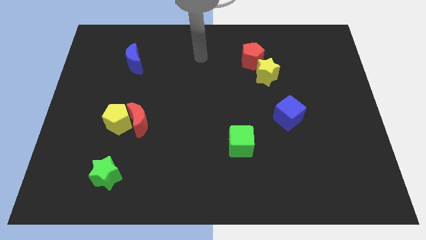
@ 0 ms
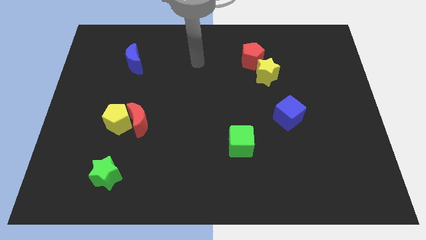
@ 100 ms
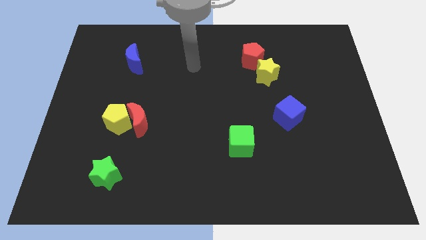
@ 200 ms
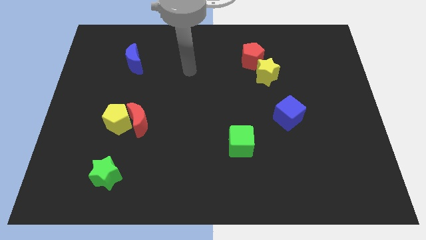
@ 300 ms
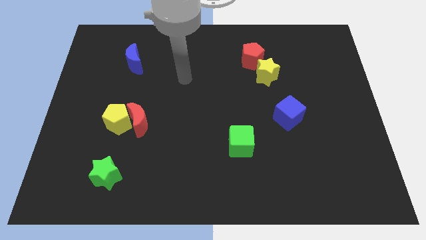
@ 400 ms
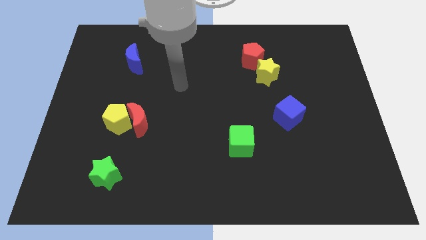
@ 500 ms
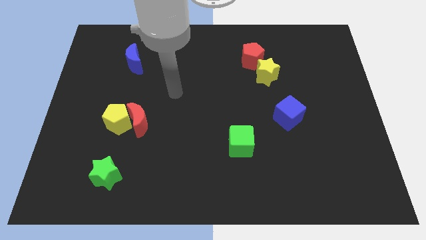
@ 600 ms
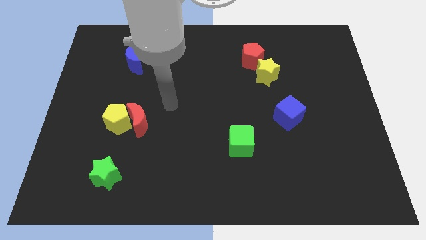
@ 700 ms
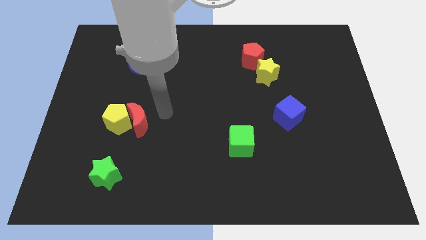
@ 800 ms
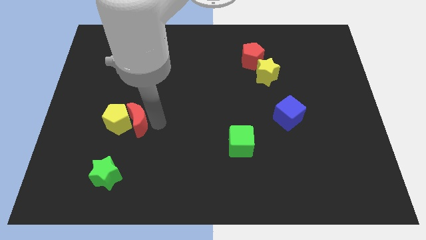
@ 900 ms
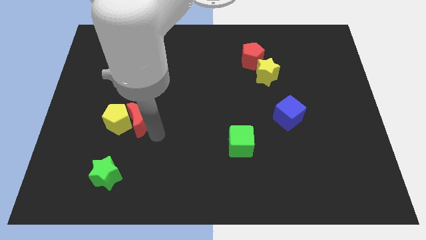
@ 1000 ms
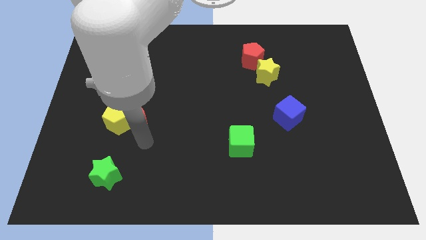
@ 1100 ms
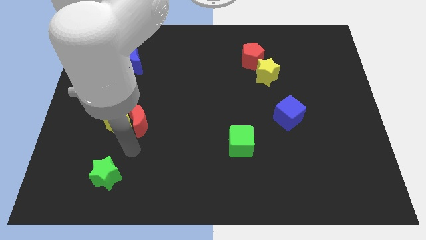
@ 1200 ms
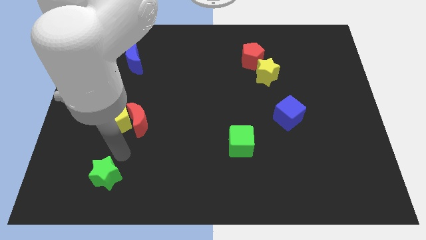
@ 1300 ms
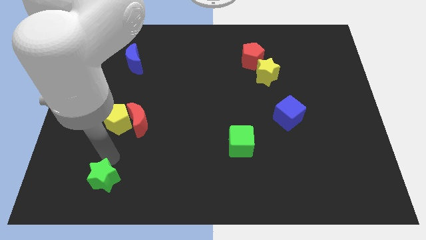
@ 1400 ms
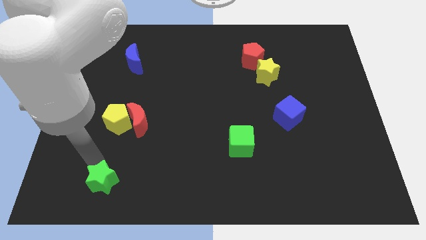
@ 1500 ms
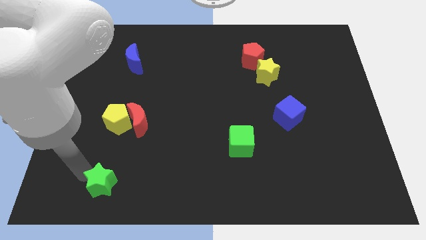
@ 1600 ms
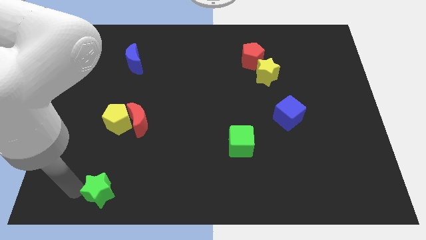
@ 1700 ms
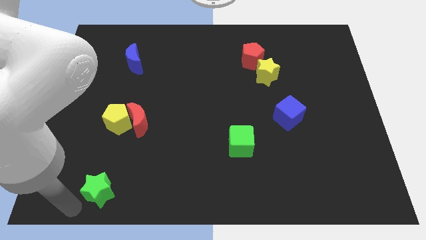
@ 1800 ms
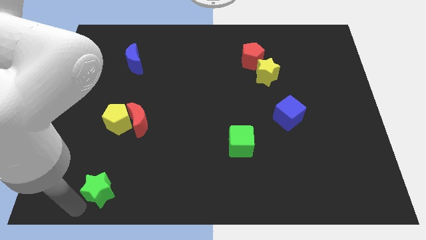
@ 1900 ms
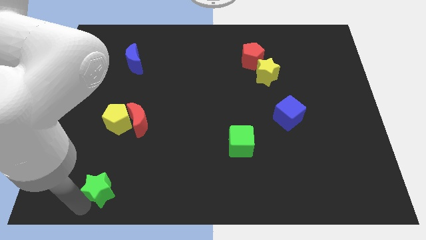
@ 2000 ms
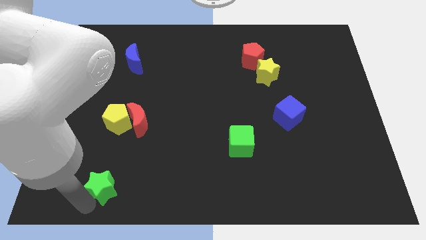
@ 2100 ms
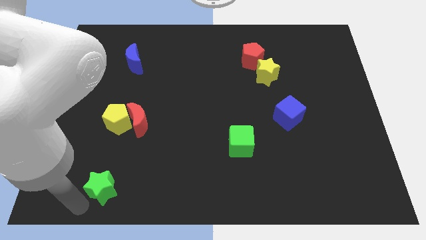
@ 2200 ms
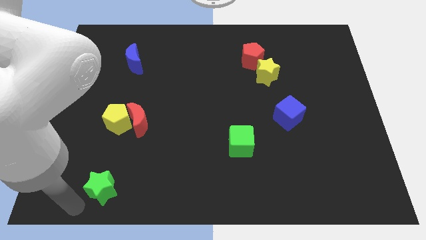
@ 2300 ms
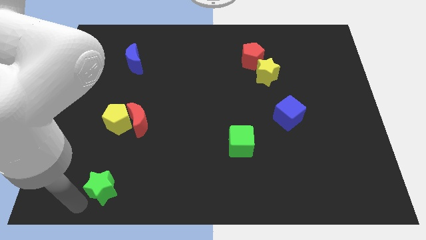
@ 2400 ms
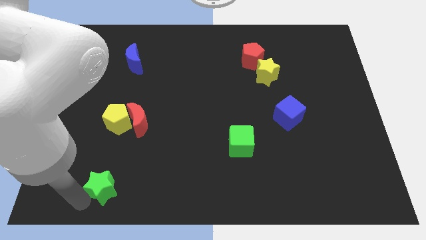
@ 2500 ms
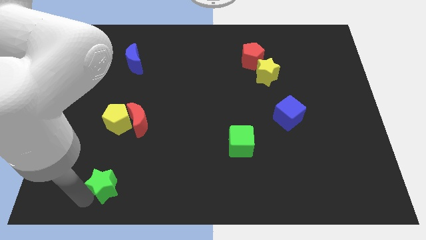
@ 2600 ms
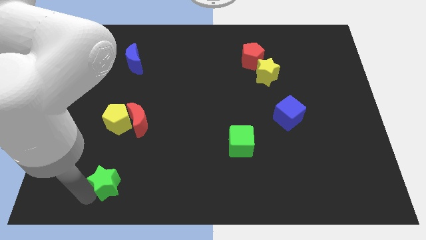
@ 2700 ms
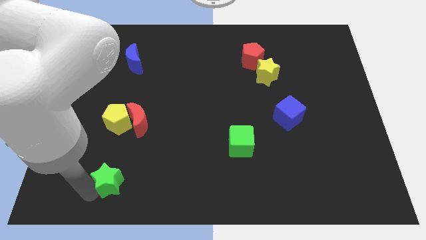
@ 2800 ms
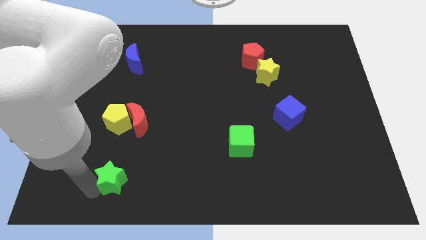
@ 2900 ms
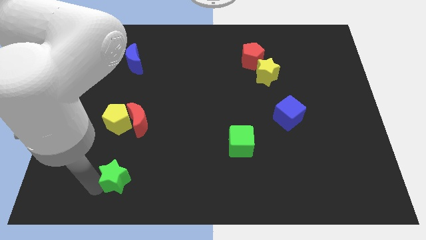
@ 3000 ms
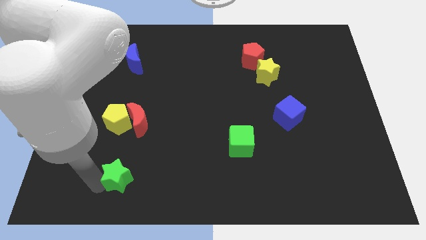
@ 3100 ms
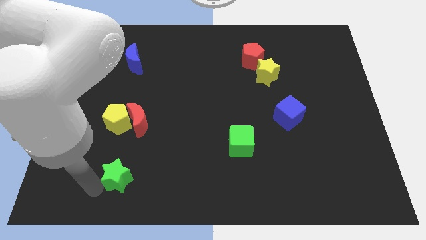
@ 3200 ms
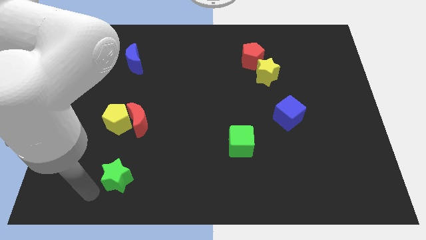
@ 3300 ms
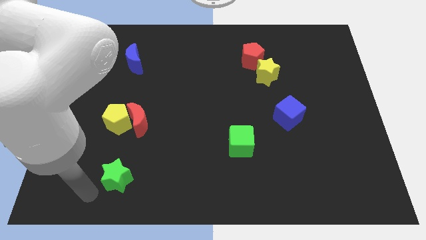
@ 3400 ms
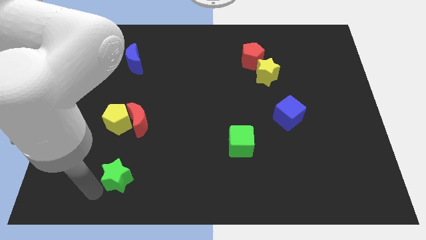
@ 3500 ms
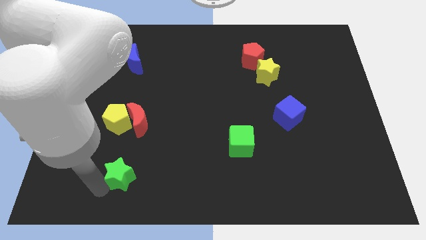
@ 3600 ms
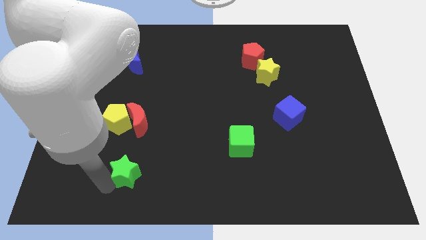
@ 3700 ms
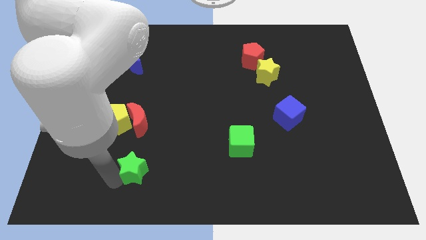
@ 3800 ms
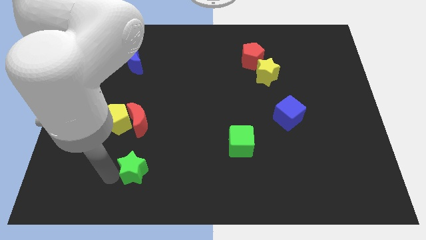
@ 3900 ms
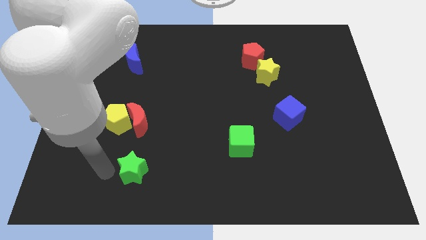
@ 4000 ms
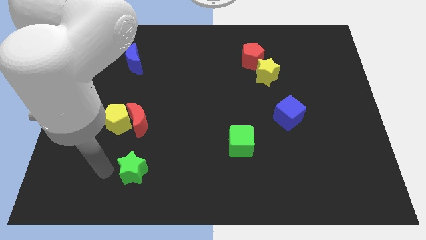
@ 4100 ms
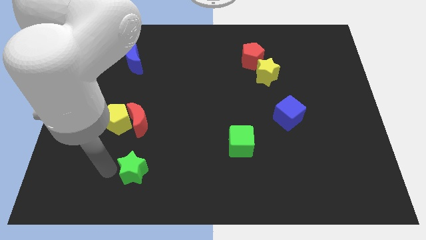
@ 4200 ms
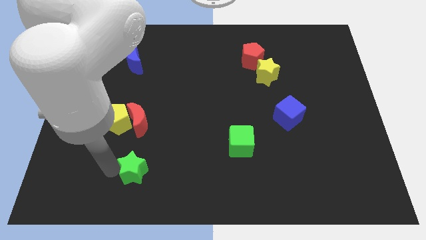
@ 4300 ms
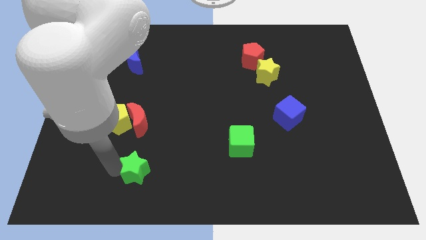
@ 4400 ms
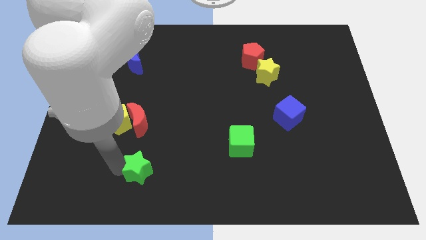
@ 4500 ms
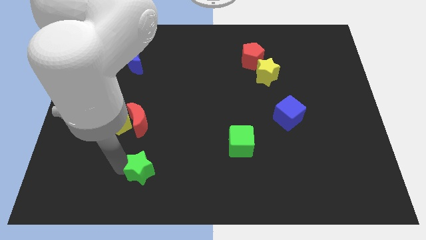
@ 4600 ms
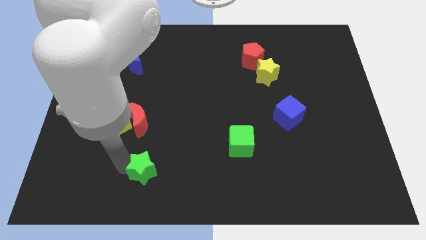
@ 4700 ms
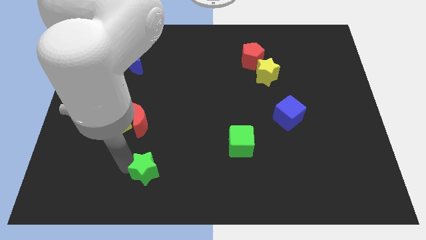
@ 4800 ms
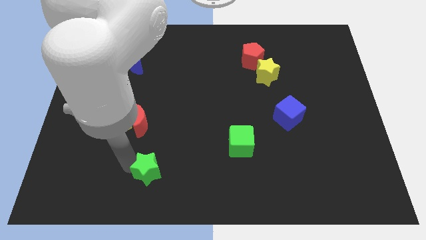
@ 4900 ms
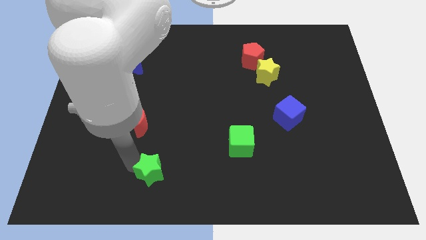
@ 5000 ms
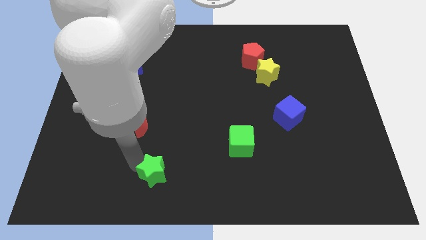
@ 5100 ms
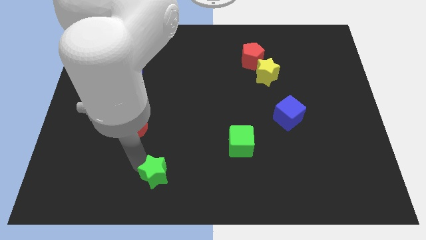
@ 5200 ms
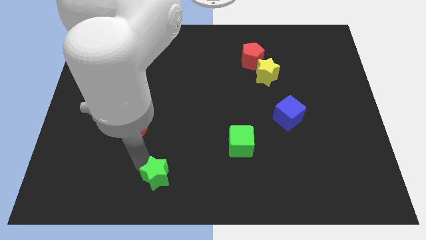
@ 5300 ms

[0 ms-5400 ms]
slide the green star to the bottom
